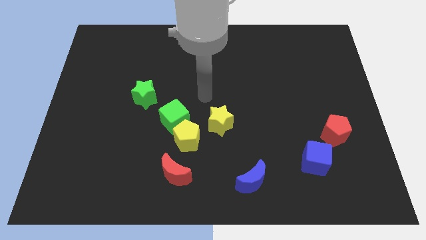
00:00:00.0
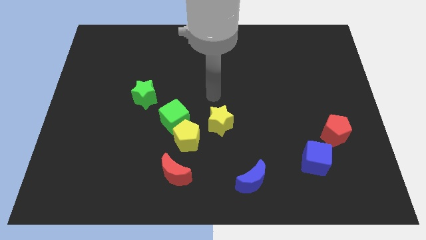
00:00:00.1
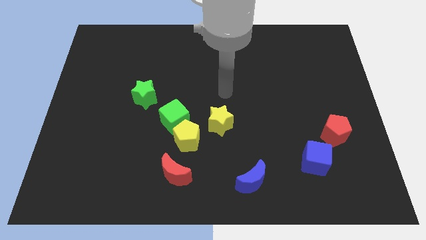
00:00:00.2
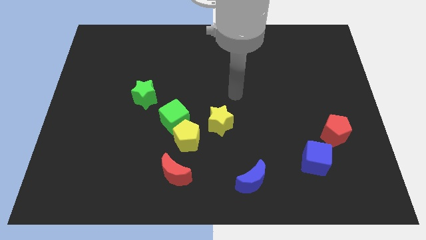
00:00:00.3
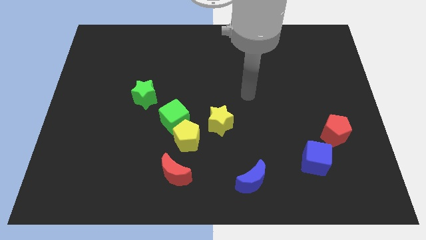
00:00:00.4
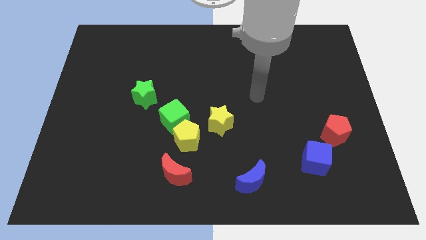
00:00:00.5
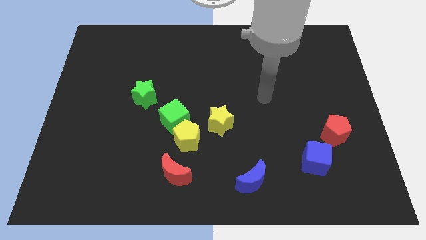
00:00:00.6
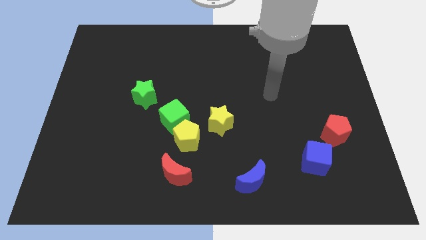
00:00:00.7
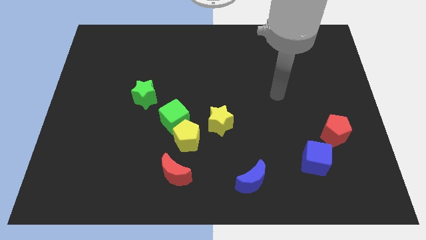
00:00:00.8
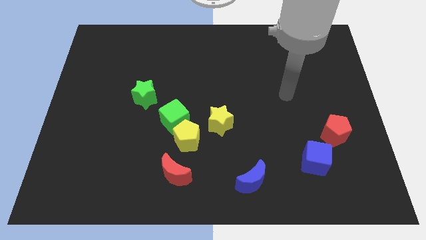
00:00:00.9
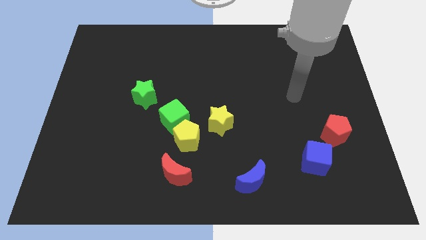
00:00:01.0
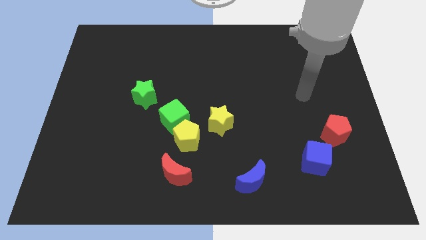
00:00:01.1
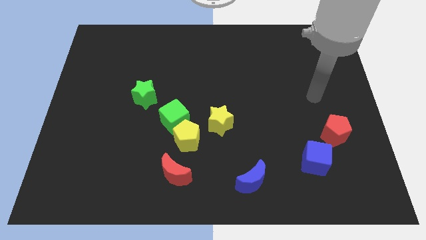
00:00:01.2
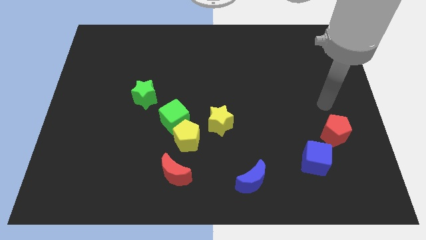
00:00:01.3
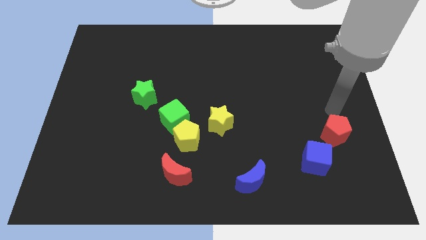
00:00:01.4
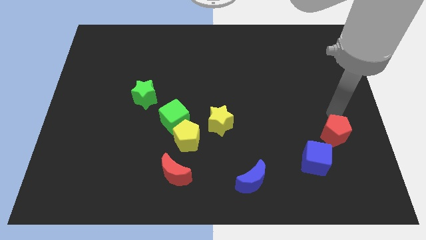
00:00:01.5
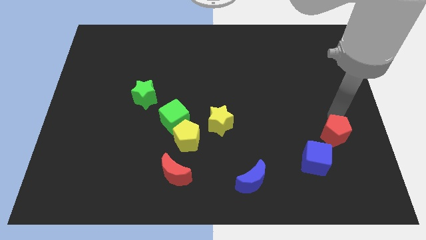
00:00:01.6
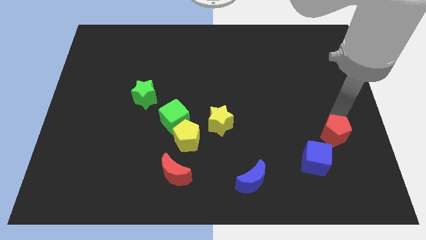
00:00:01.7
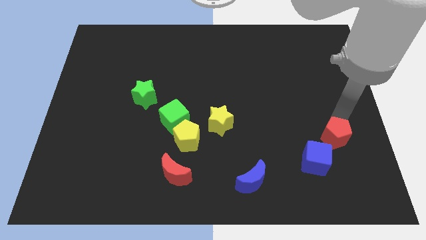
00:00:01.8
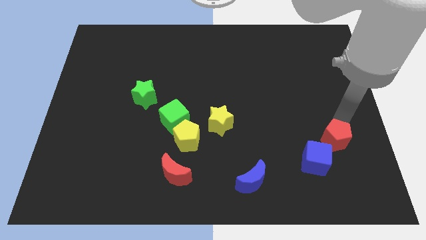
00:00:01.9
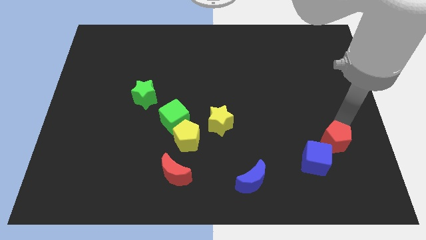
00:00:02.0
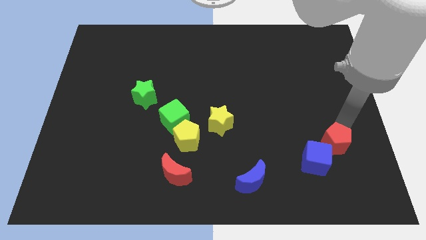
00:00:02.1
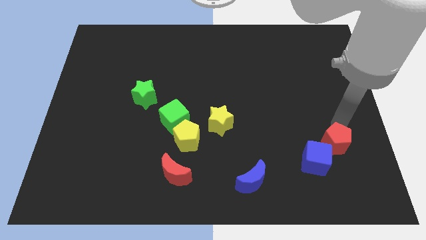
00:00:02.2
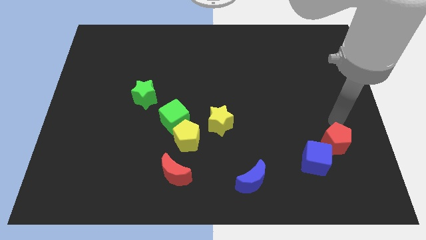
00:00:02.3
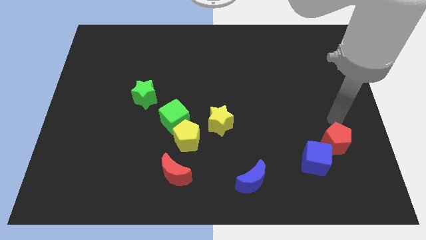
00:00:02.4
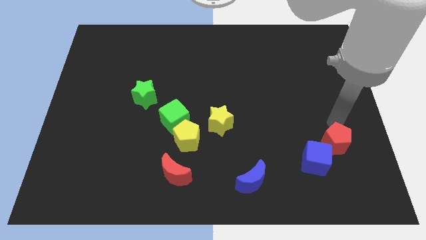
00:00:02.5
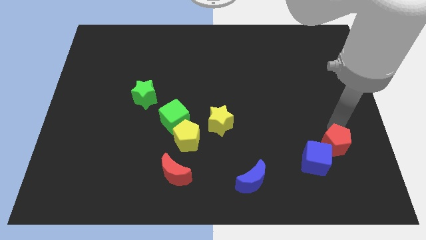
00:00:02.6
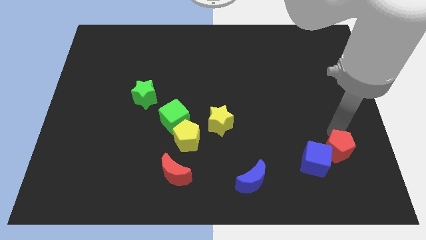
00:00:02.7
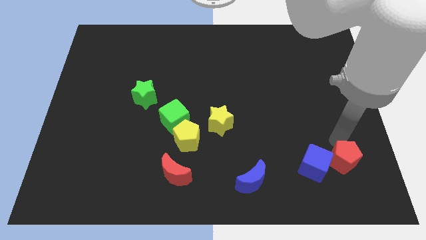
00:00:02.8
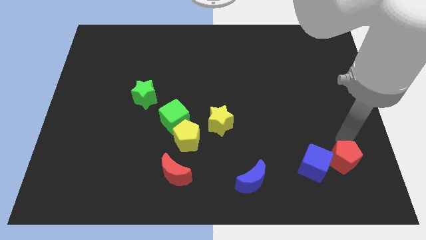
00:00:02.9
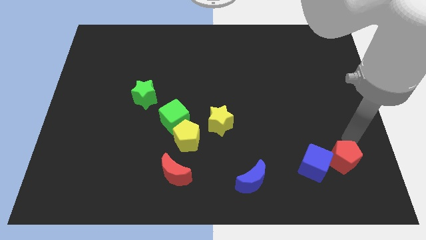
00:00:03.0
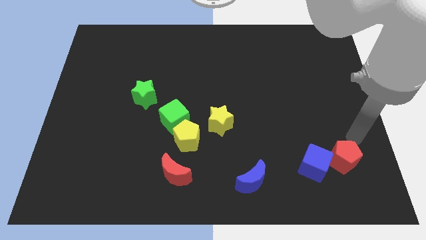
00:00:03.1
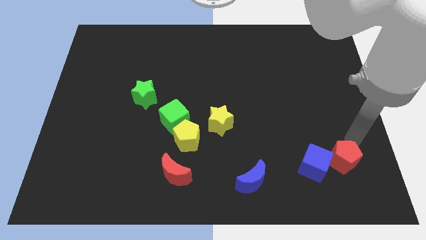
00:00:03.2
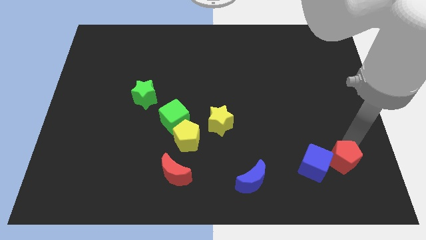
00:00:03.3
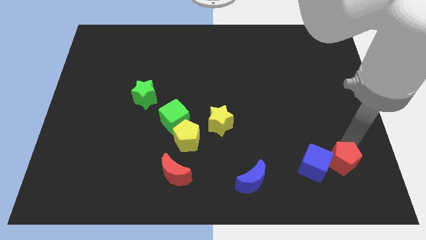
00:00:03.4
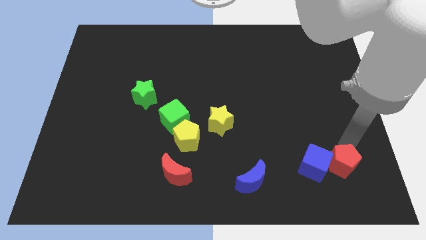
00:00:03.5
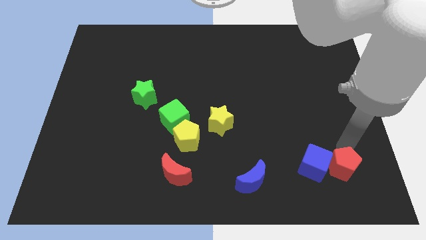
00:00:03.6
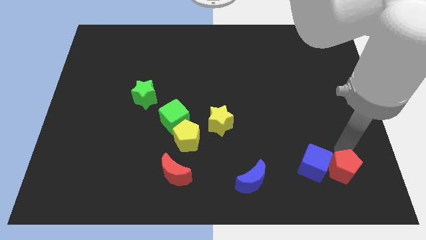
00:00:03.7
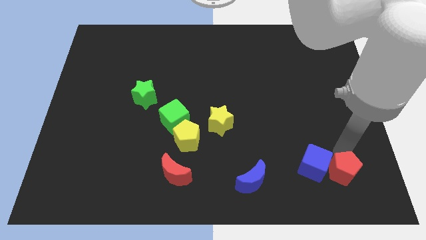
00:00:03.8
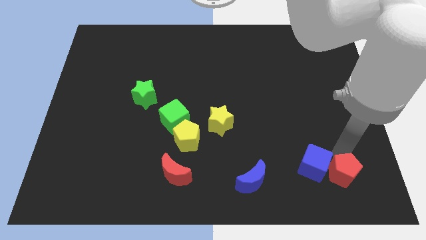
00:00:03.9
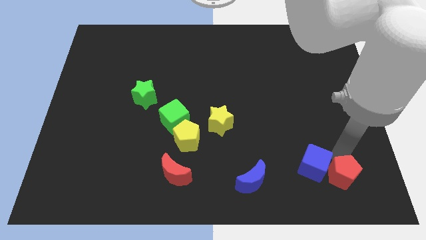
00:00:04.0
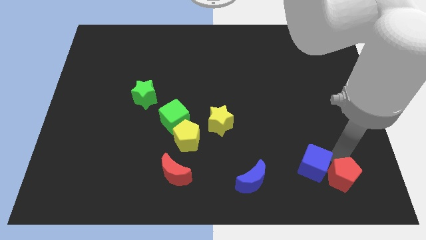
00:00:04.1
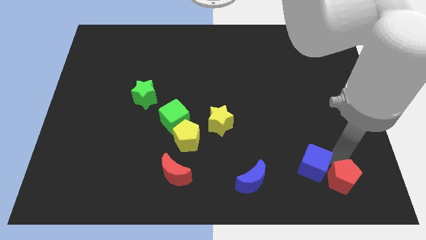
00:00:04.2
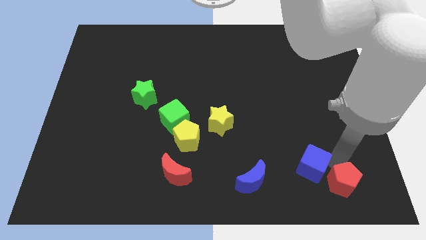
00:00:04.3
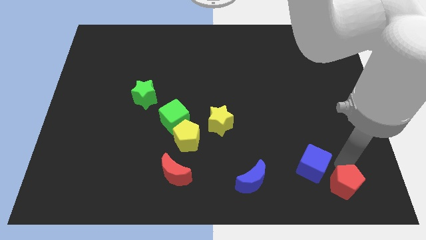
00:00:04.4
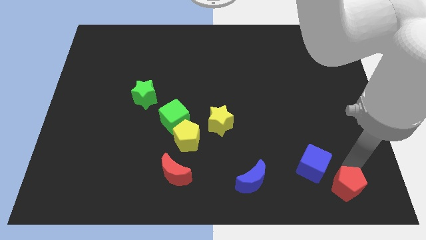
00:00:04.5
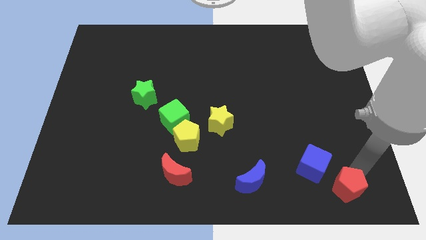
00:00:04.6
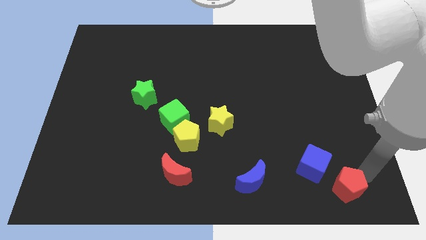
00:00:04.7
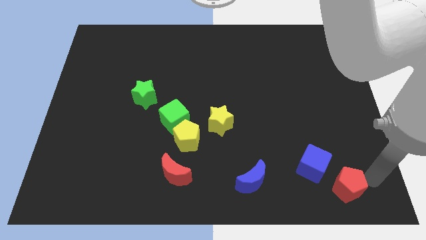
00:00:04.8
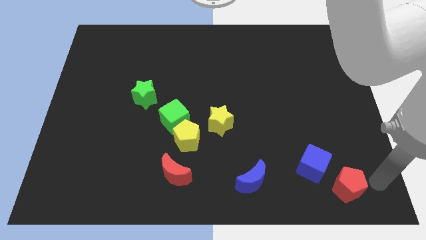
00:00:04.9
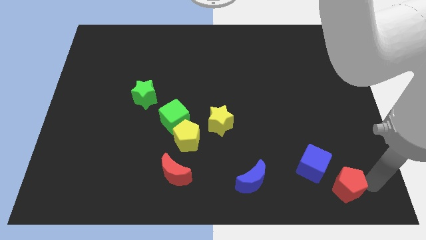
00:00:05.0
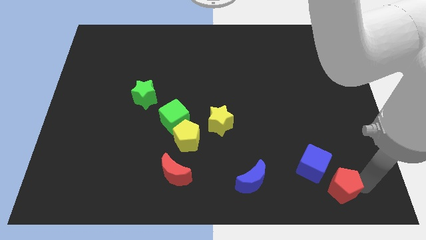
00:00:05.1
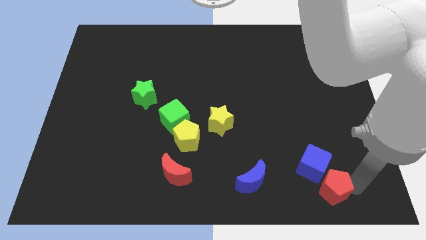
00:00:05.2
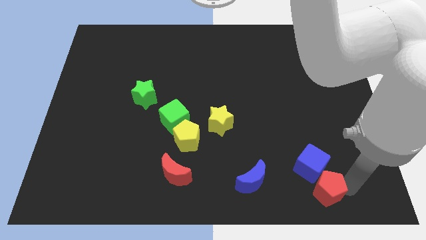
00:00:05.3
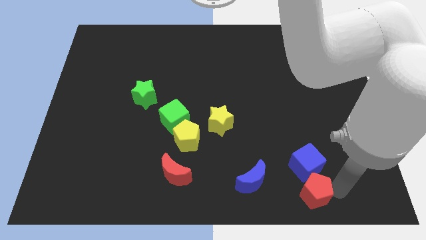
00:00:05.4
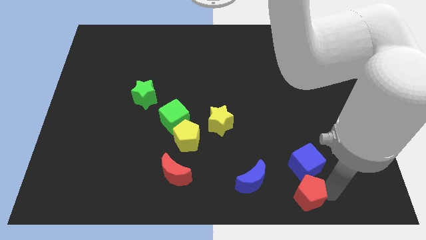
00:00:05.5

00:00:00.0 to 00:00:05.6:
slide the red pentagon to the bottom left side of the blue cube
